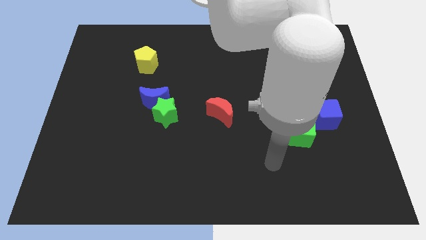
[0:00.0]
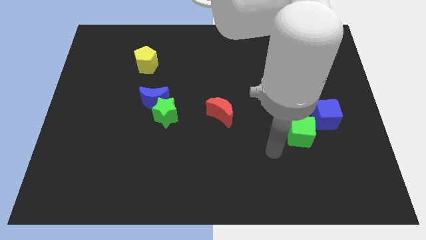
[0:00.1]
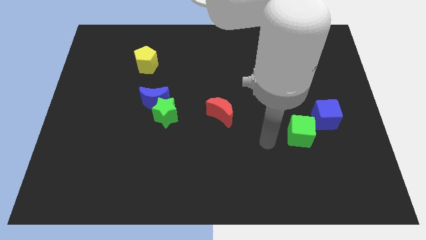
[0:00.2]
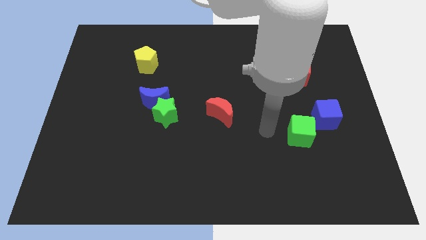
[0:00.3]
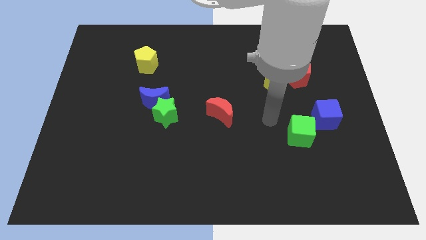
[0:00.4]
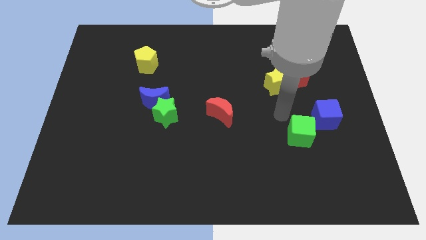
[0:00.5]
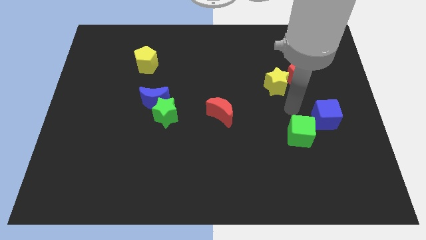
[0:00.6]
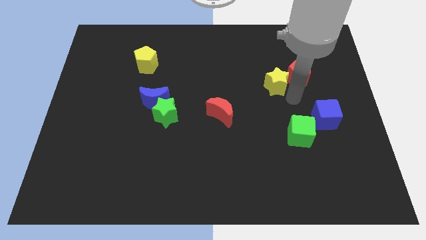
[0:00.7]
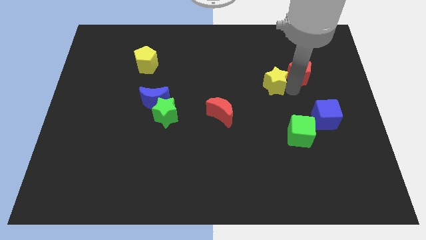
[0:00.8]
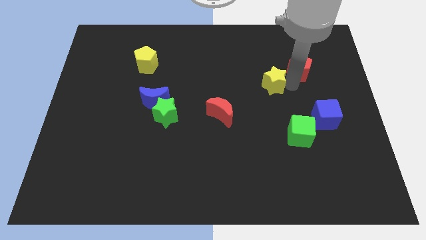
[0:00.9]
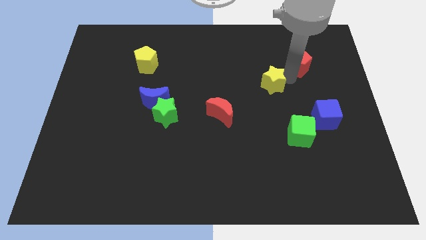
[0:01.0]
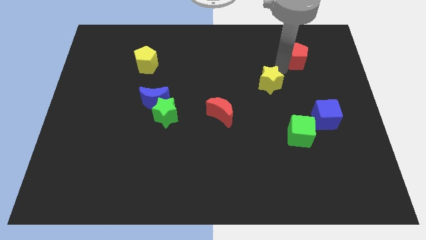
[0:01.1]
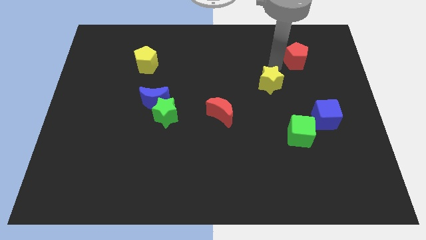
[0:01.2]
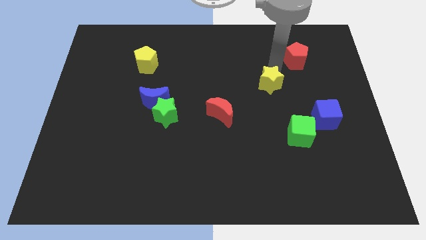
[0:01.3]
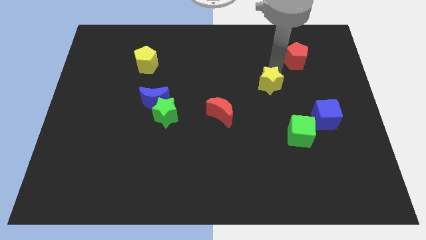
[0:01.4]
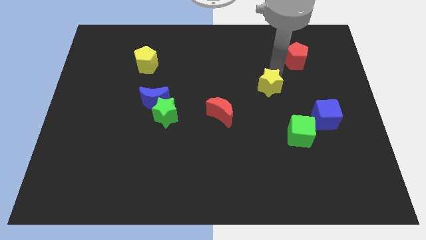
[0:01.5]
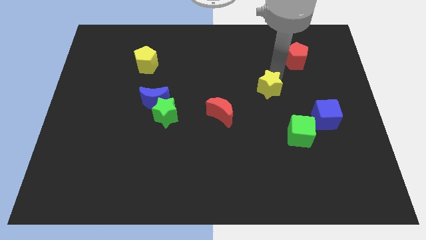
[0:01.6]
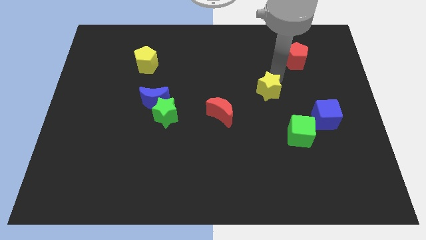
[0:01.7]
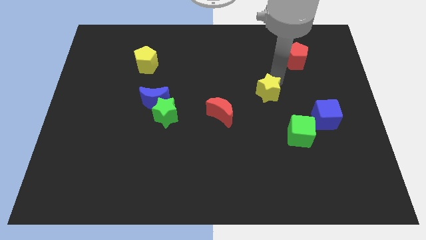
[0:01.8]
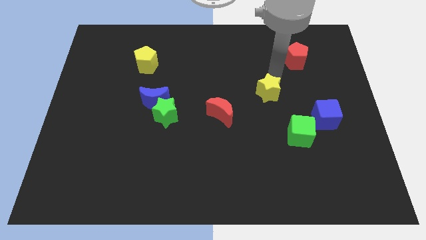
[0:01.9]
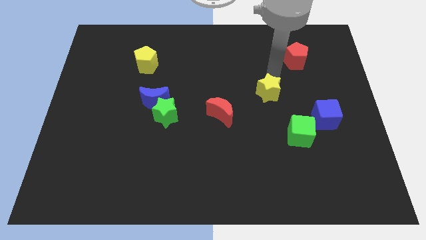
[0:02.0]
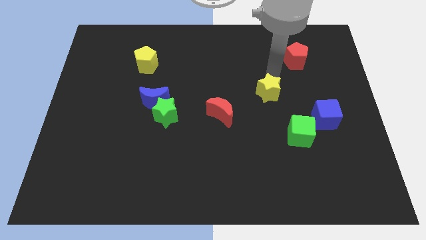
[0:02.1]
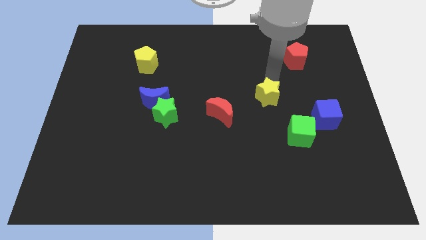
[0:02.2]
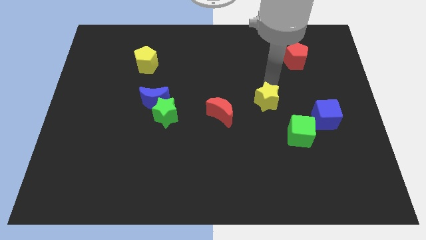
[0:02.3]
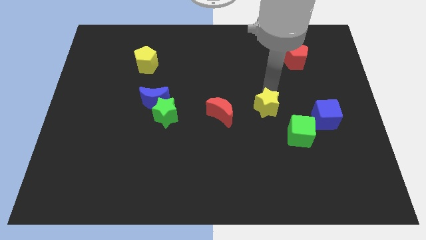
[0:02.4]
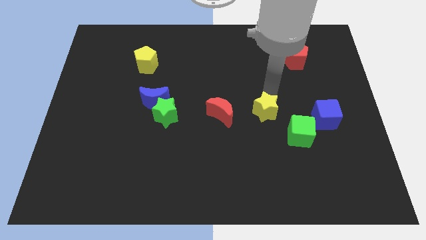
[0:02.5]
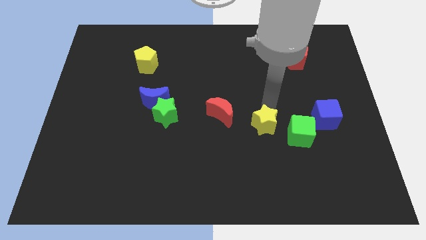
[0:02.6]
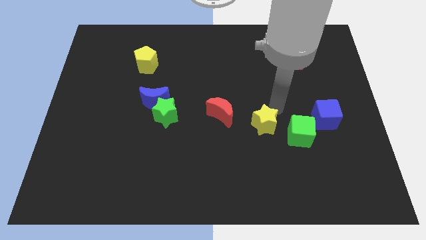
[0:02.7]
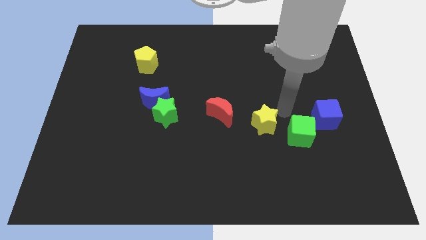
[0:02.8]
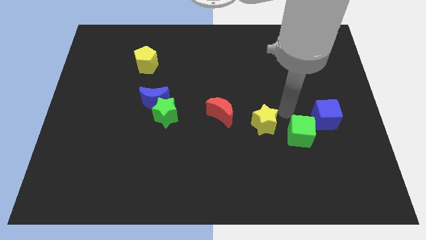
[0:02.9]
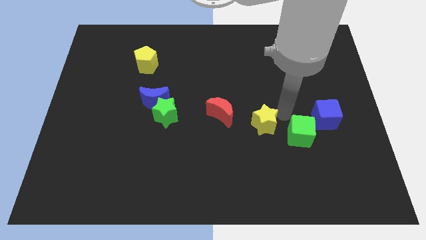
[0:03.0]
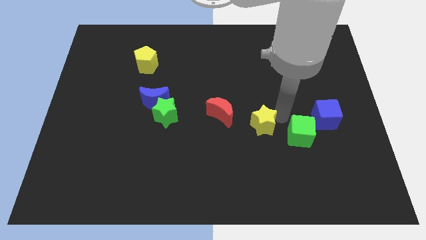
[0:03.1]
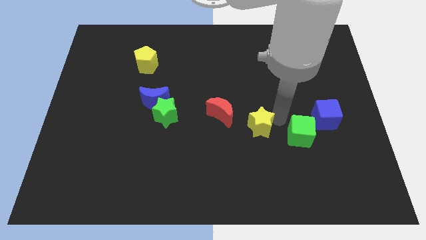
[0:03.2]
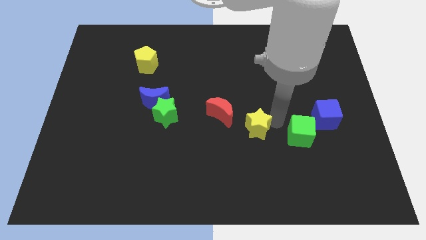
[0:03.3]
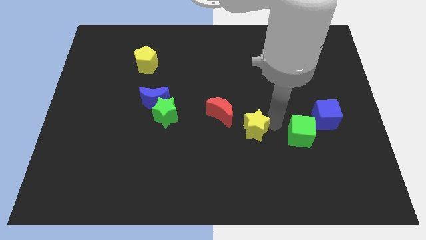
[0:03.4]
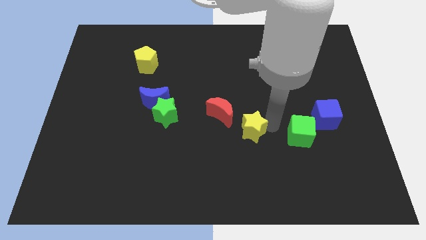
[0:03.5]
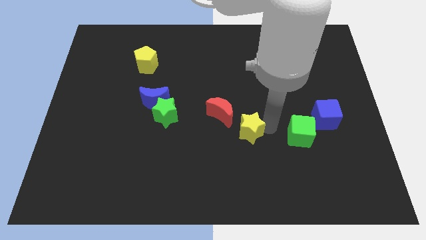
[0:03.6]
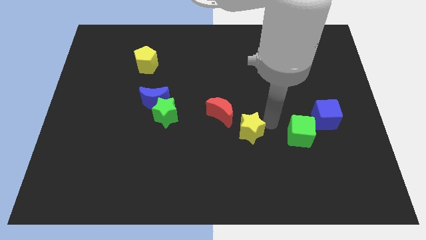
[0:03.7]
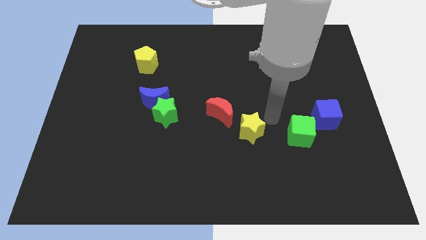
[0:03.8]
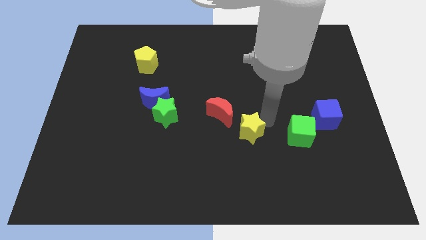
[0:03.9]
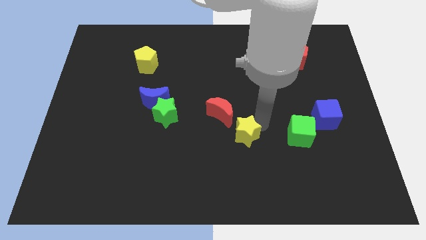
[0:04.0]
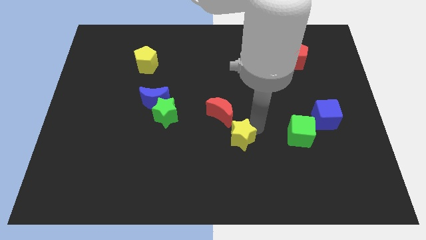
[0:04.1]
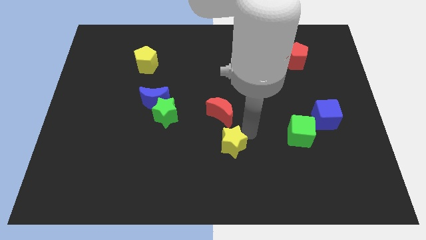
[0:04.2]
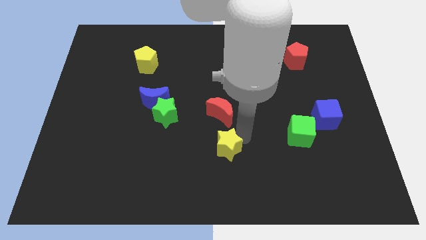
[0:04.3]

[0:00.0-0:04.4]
push the yellow star downwards and left diagonally

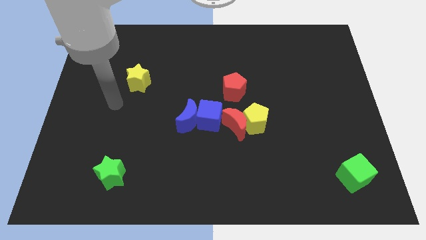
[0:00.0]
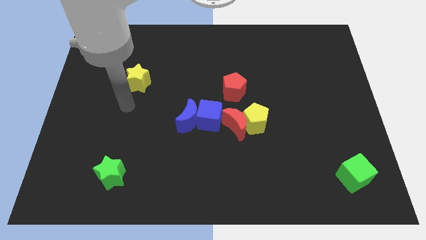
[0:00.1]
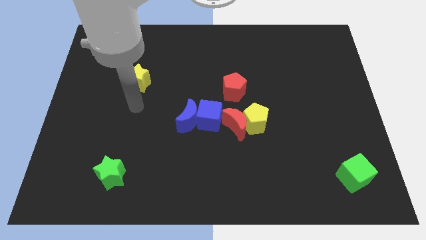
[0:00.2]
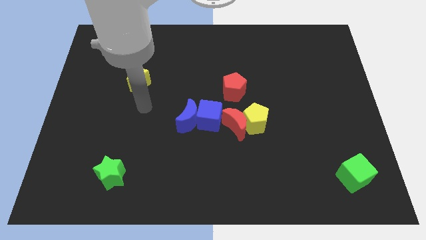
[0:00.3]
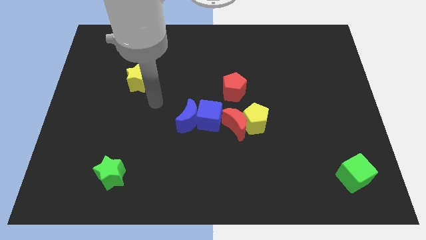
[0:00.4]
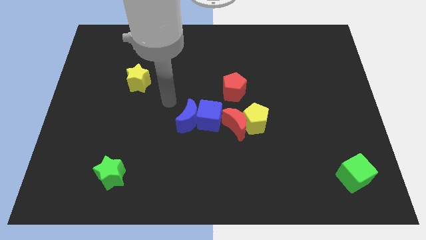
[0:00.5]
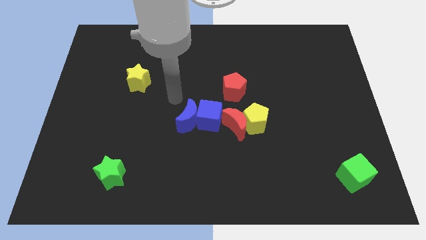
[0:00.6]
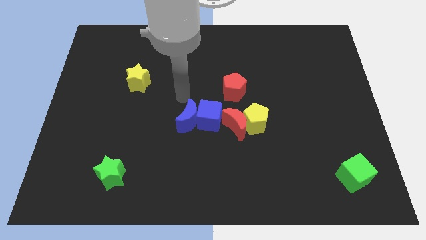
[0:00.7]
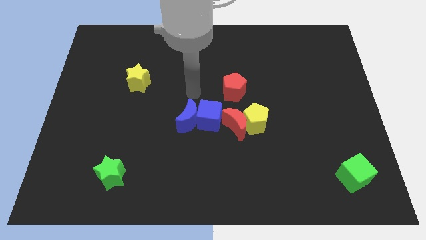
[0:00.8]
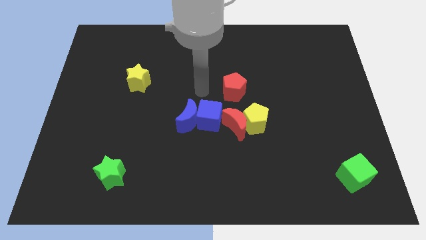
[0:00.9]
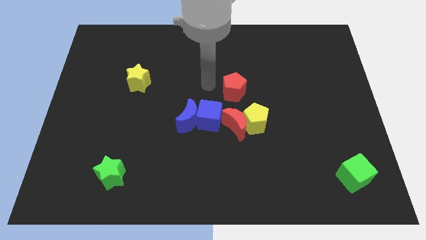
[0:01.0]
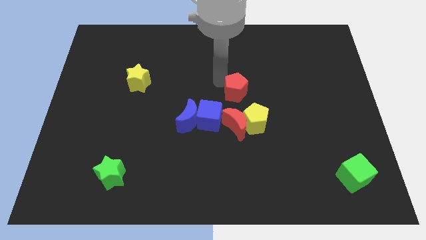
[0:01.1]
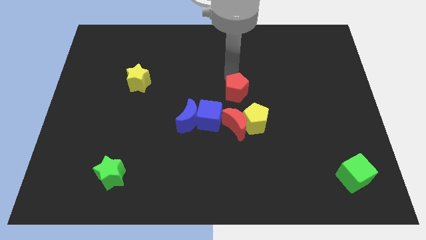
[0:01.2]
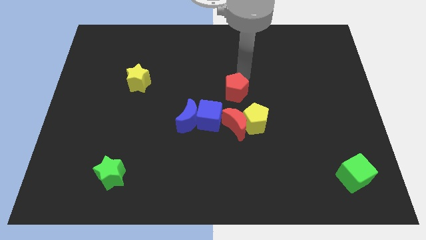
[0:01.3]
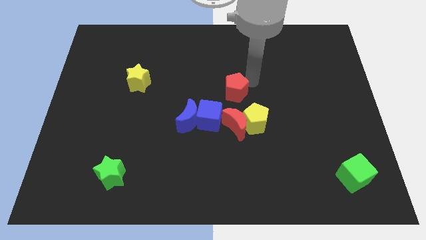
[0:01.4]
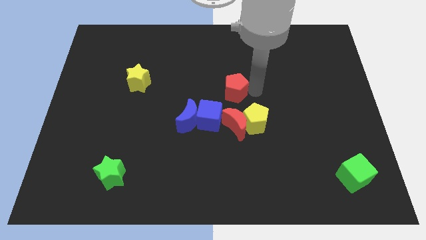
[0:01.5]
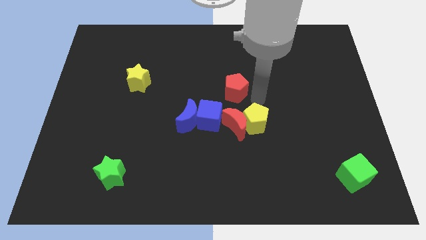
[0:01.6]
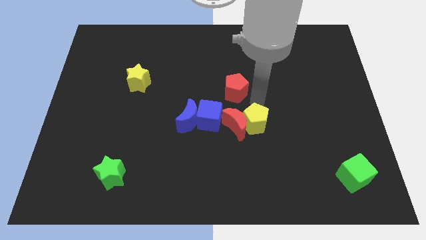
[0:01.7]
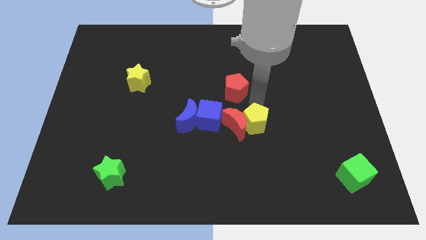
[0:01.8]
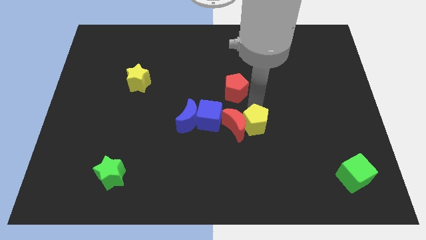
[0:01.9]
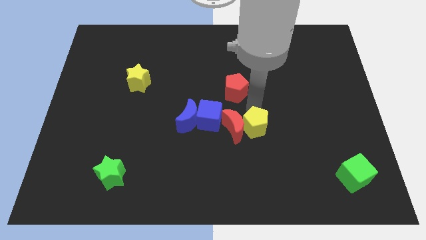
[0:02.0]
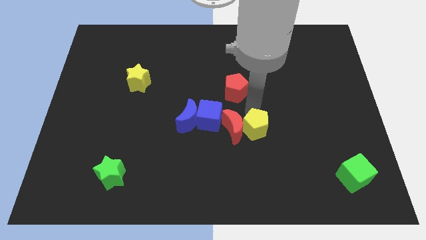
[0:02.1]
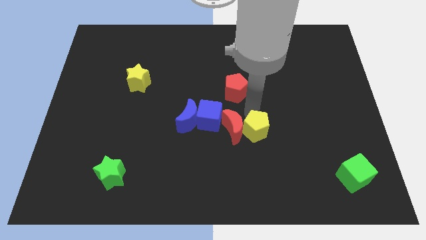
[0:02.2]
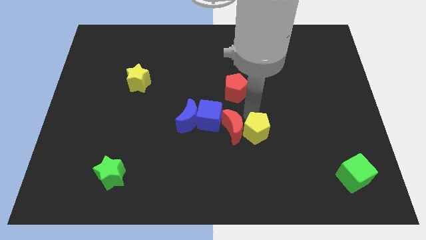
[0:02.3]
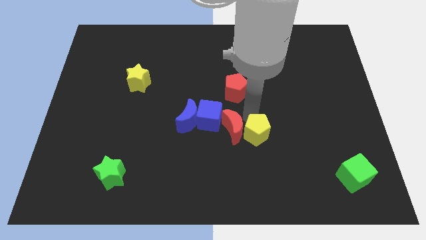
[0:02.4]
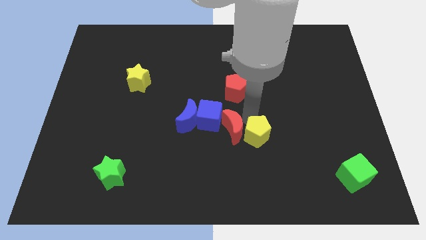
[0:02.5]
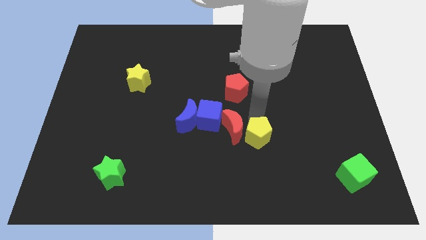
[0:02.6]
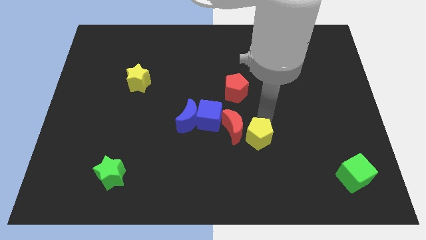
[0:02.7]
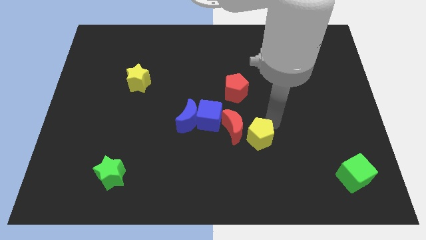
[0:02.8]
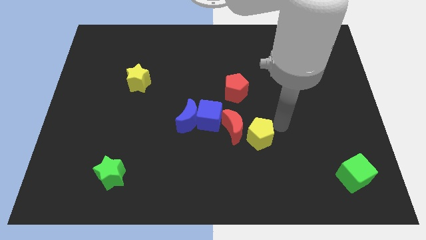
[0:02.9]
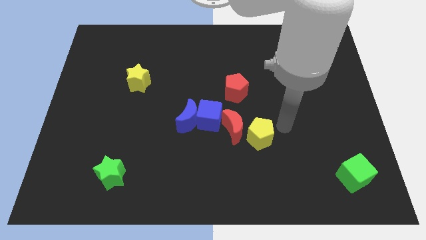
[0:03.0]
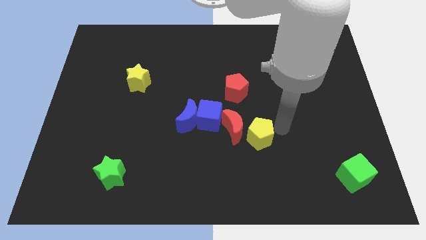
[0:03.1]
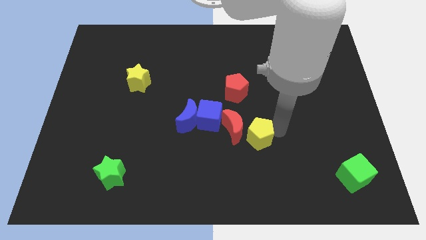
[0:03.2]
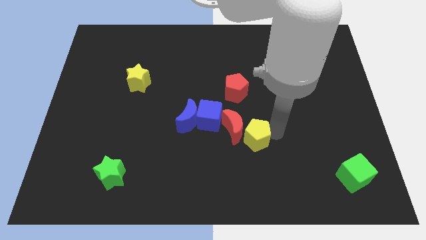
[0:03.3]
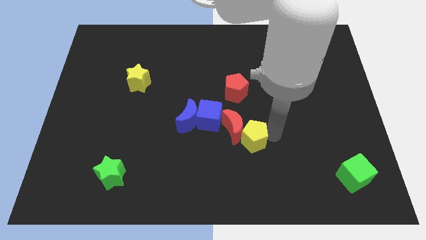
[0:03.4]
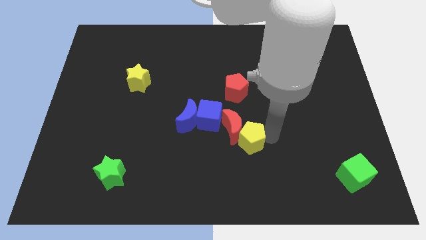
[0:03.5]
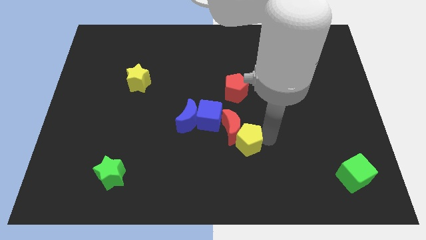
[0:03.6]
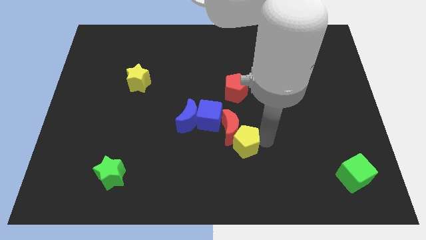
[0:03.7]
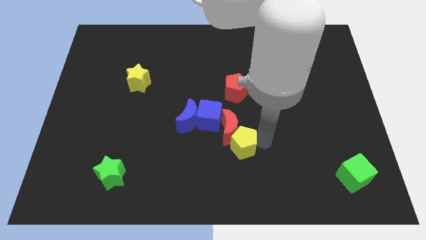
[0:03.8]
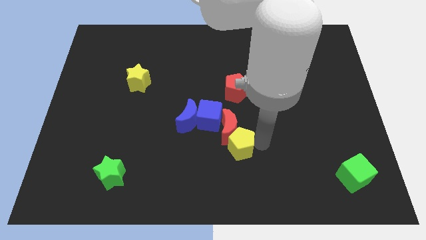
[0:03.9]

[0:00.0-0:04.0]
slightly push the yellow pentagon downwards and then left
